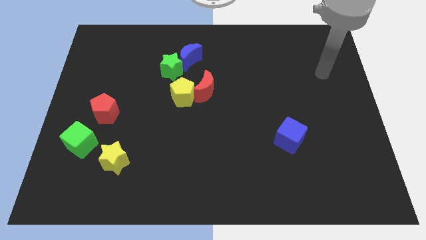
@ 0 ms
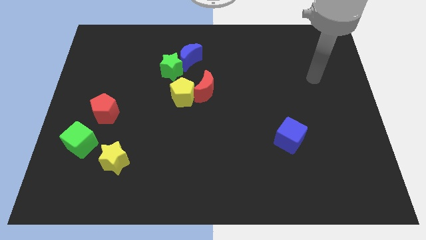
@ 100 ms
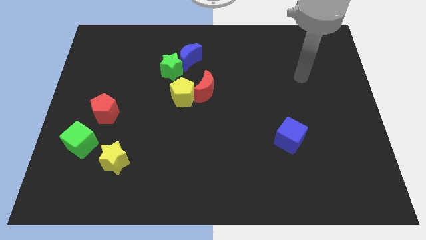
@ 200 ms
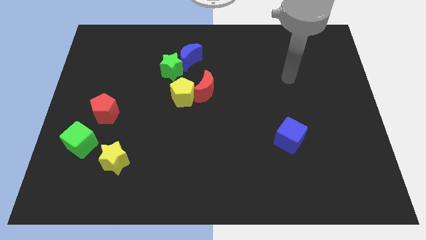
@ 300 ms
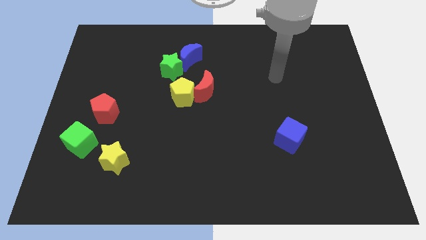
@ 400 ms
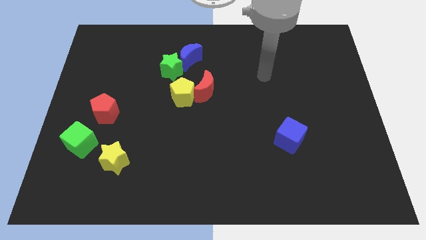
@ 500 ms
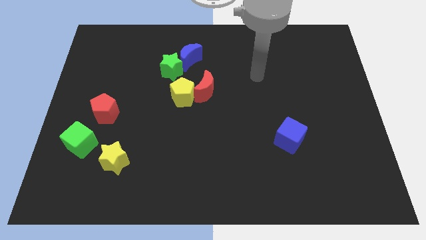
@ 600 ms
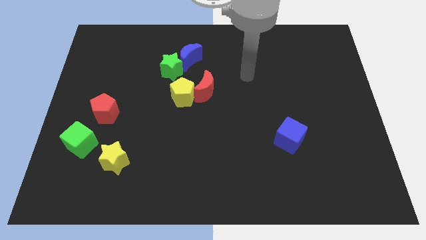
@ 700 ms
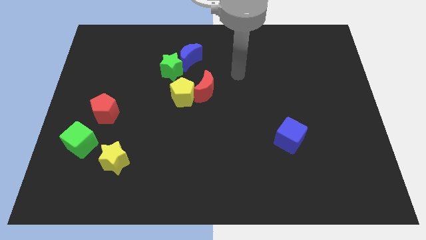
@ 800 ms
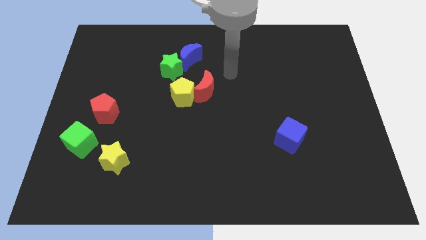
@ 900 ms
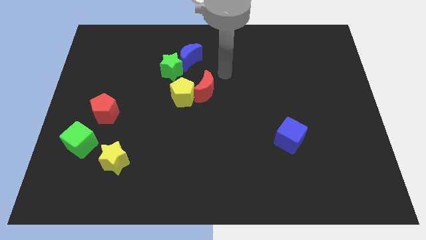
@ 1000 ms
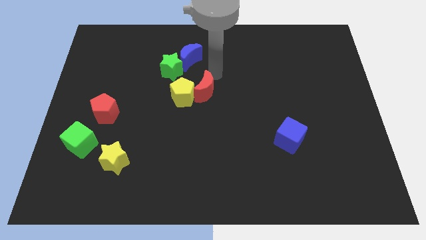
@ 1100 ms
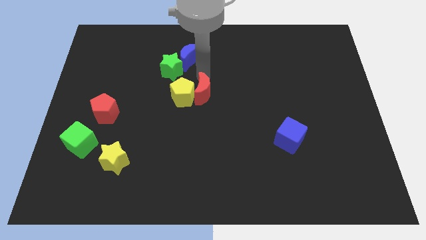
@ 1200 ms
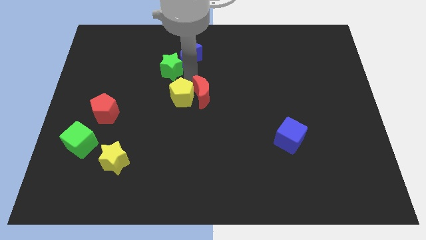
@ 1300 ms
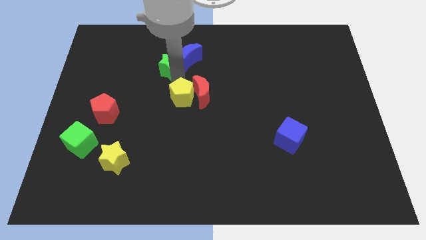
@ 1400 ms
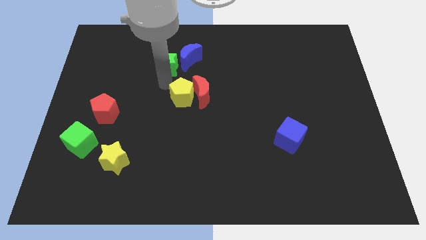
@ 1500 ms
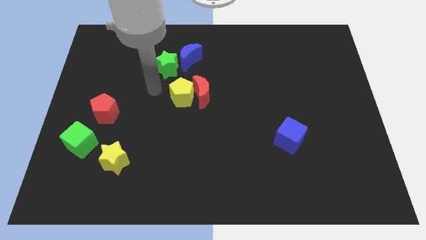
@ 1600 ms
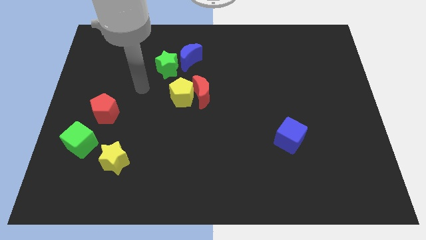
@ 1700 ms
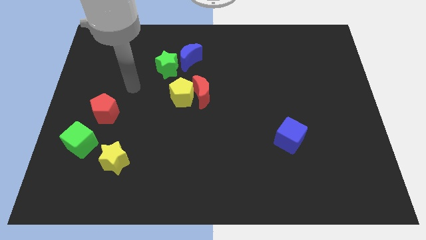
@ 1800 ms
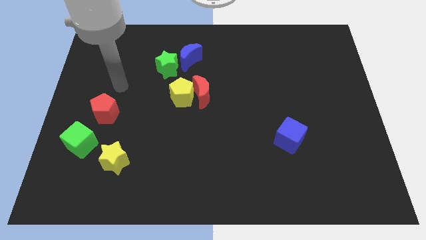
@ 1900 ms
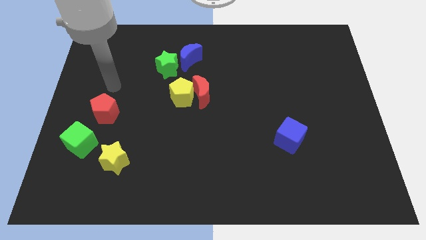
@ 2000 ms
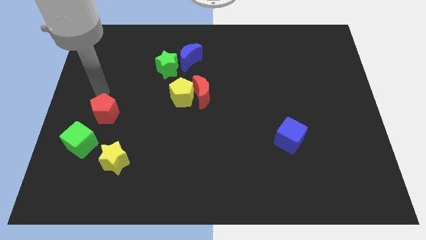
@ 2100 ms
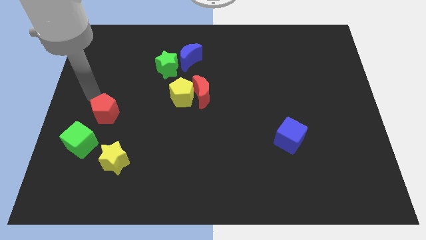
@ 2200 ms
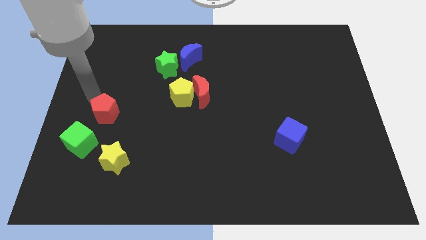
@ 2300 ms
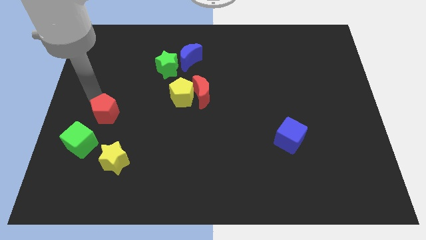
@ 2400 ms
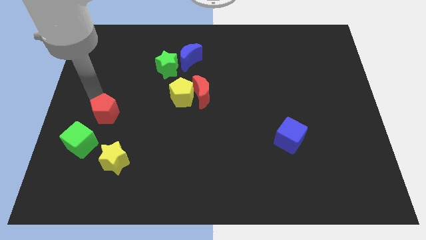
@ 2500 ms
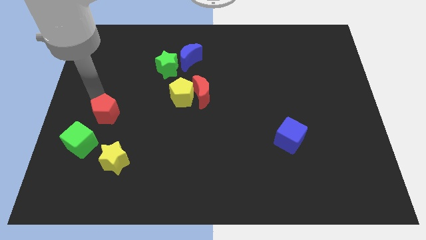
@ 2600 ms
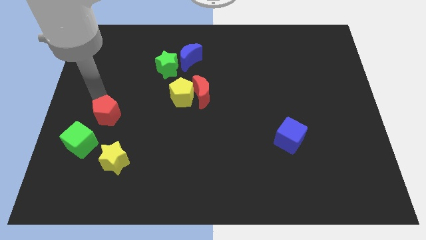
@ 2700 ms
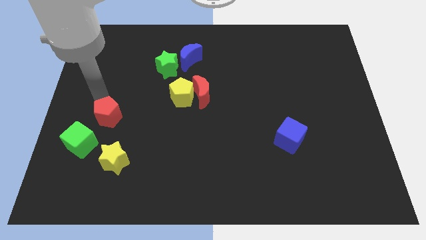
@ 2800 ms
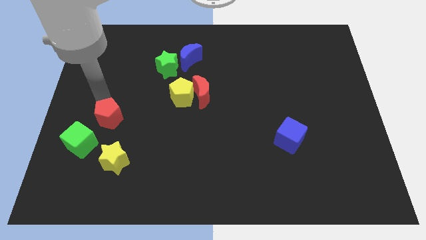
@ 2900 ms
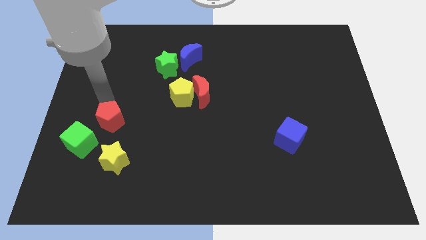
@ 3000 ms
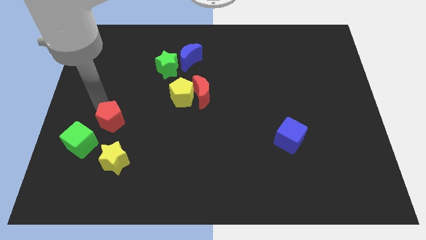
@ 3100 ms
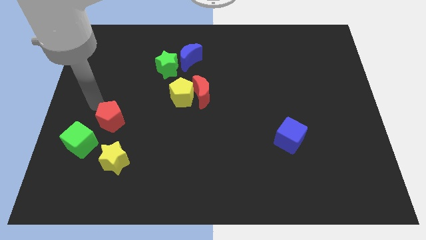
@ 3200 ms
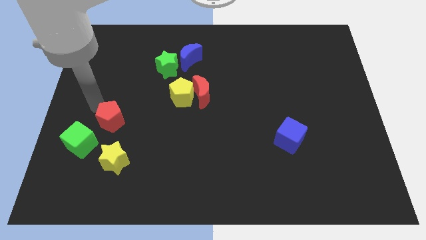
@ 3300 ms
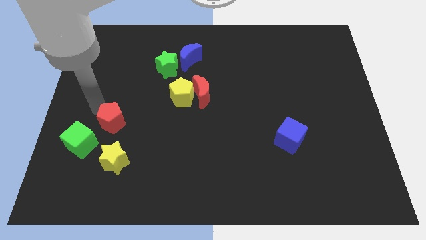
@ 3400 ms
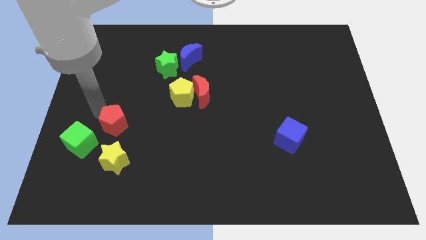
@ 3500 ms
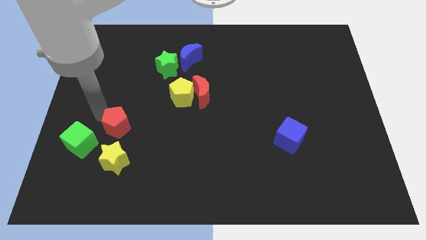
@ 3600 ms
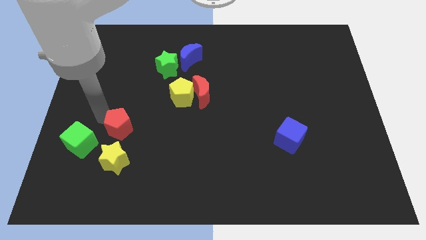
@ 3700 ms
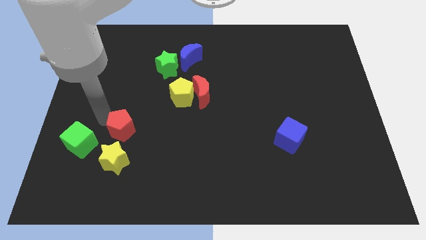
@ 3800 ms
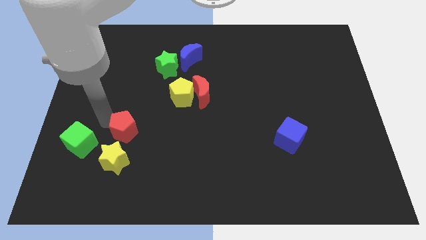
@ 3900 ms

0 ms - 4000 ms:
slightly slide the red pentagon diagonally down and right

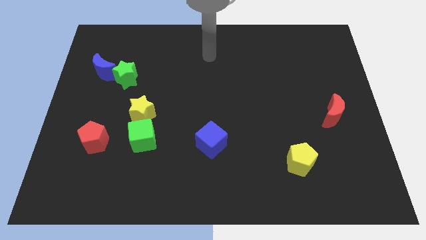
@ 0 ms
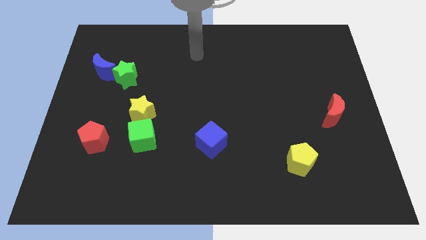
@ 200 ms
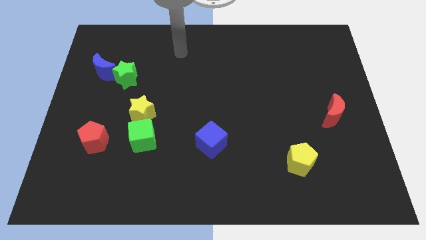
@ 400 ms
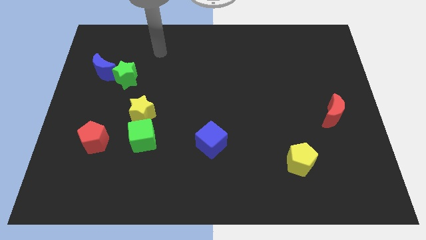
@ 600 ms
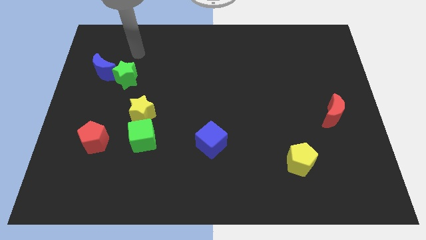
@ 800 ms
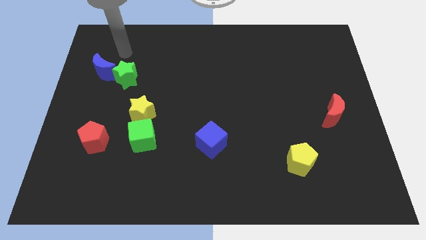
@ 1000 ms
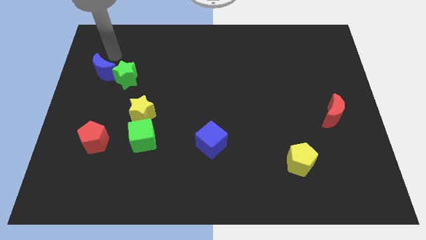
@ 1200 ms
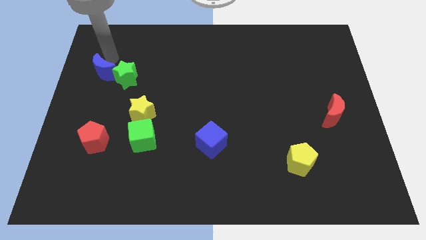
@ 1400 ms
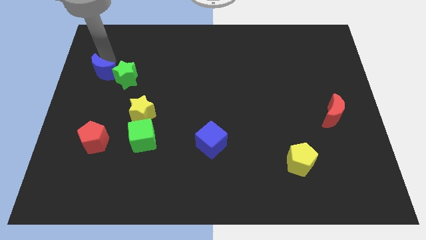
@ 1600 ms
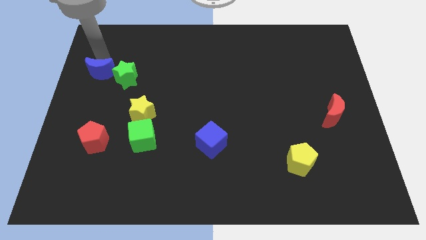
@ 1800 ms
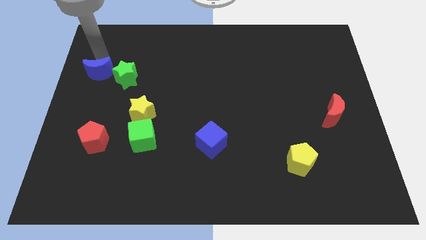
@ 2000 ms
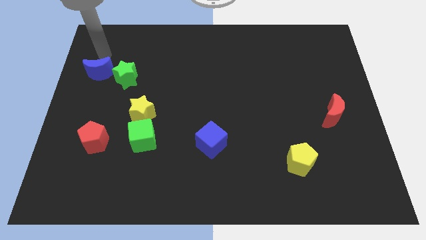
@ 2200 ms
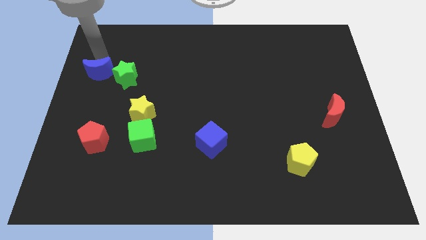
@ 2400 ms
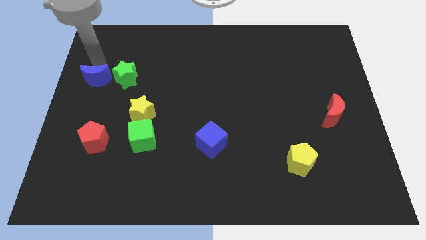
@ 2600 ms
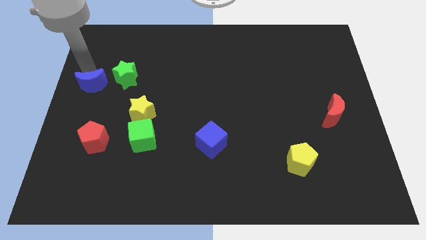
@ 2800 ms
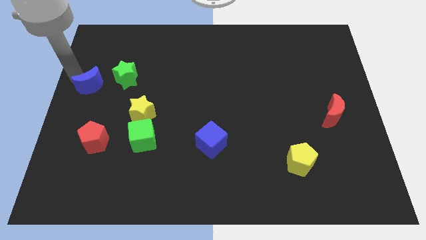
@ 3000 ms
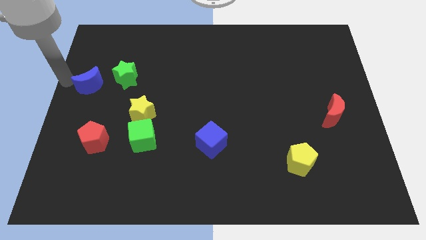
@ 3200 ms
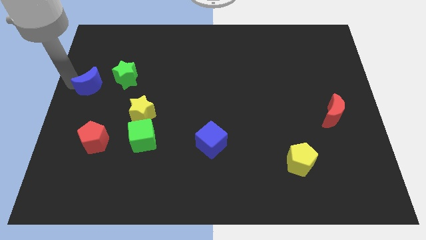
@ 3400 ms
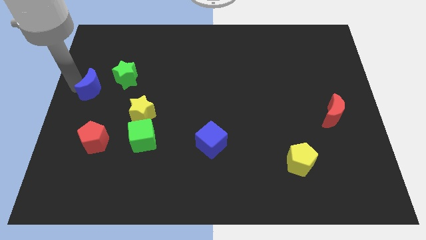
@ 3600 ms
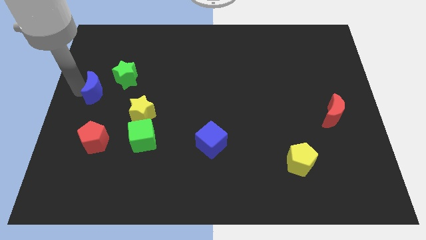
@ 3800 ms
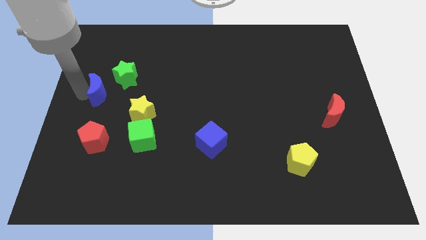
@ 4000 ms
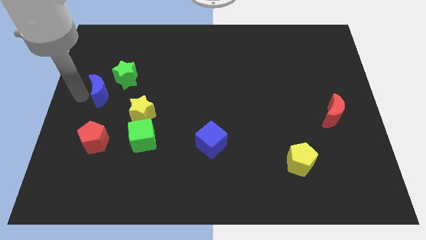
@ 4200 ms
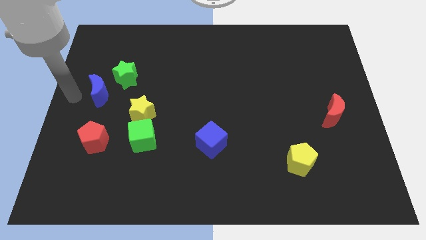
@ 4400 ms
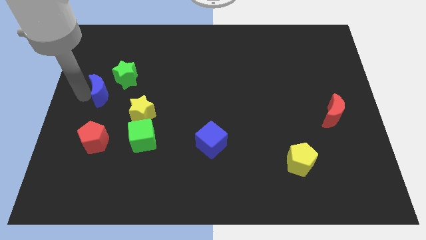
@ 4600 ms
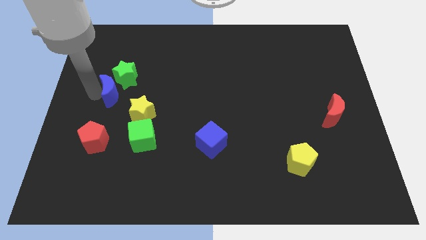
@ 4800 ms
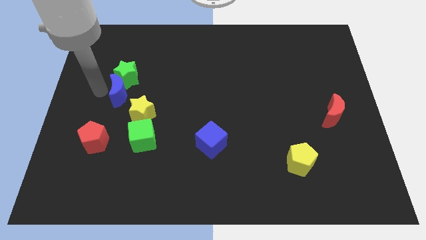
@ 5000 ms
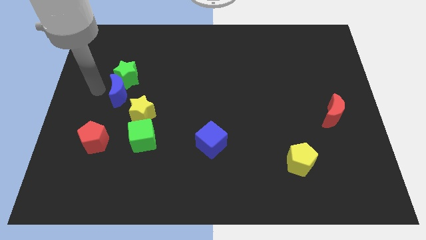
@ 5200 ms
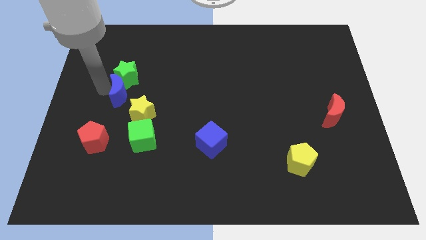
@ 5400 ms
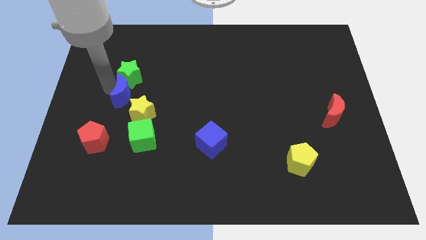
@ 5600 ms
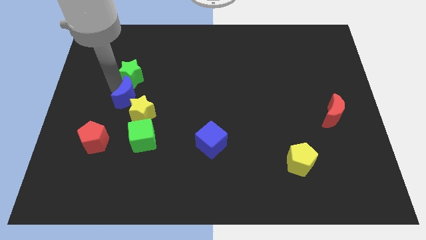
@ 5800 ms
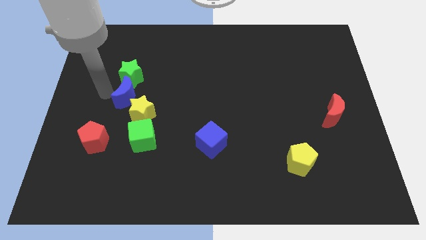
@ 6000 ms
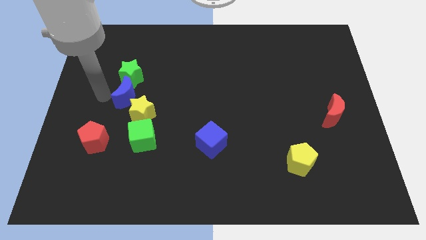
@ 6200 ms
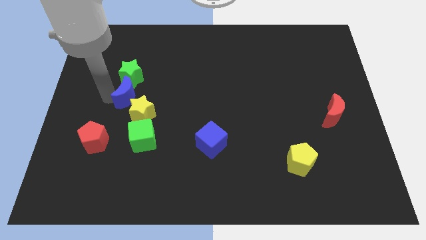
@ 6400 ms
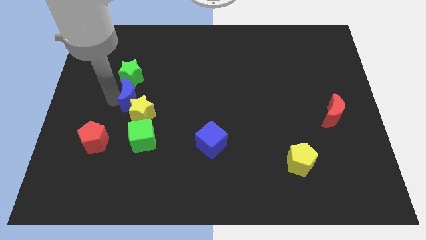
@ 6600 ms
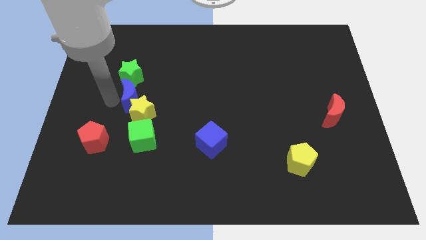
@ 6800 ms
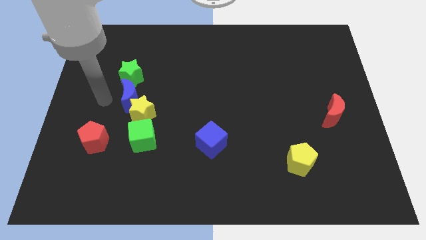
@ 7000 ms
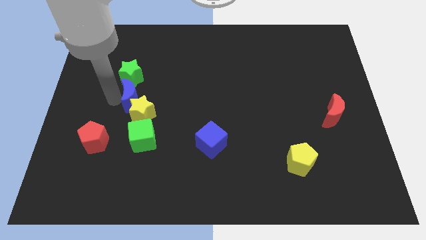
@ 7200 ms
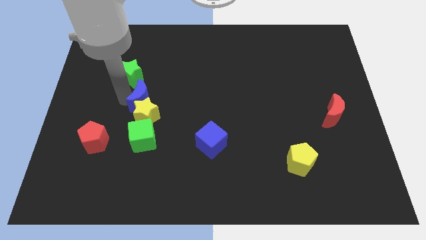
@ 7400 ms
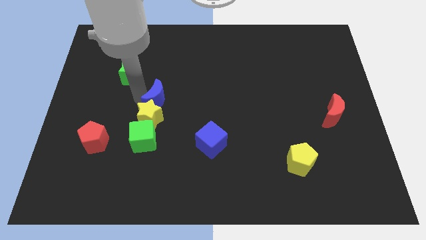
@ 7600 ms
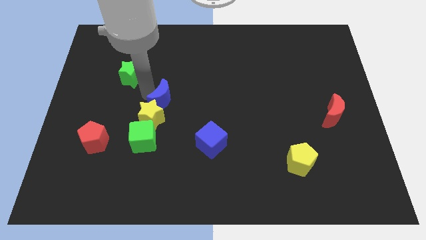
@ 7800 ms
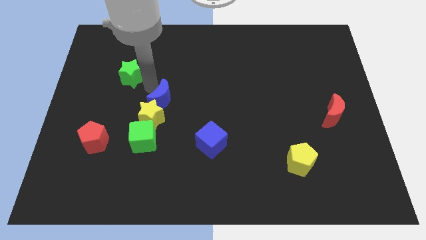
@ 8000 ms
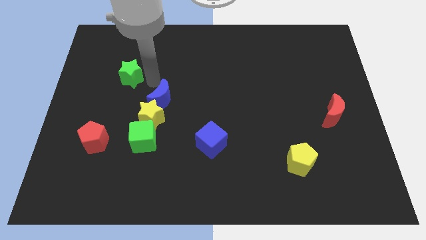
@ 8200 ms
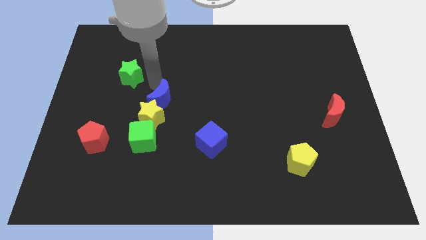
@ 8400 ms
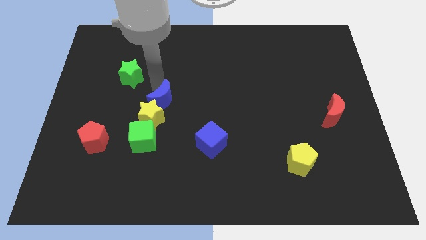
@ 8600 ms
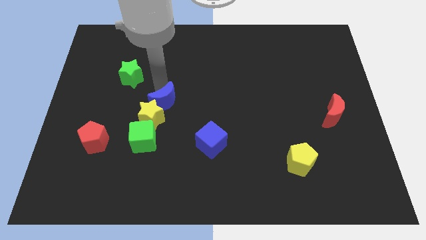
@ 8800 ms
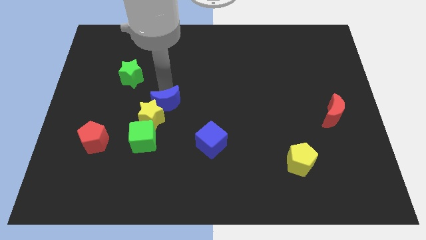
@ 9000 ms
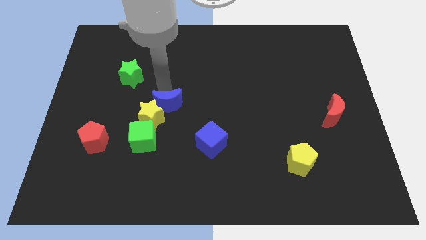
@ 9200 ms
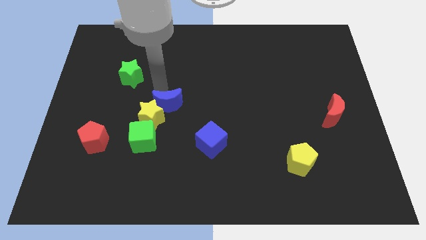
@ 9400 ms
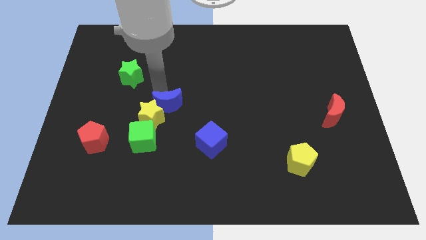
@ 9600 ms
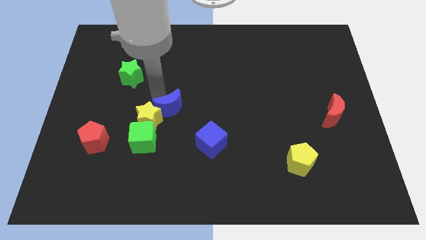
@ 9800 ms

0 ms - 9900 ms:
push the blue moon downwards and right
